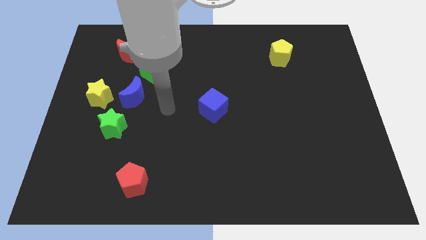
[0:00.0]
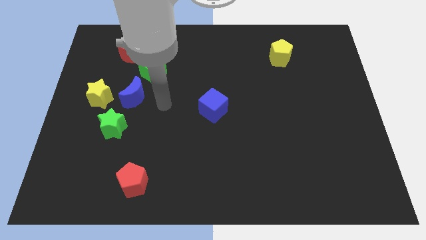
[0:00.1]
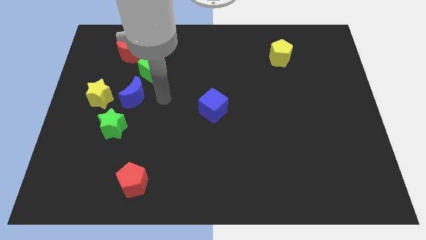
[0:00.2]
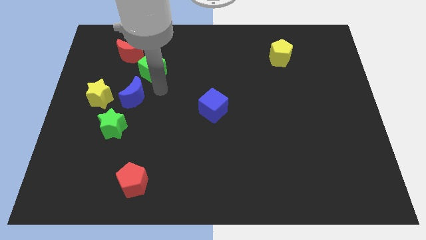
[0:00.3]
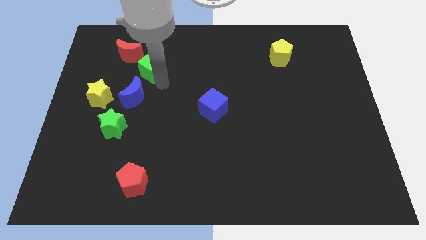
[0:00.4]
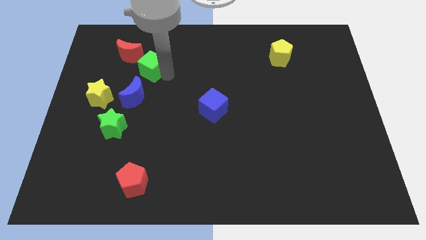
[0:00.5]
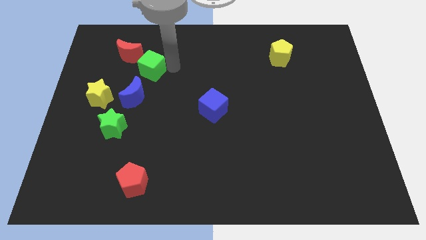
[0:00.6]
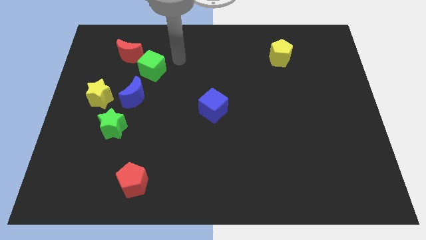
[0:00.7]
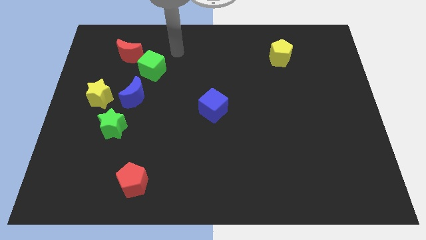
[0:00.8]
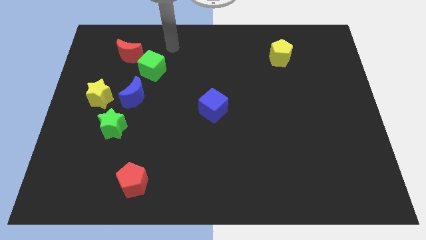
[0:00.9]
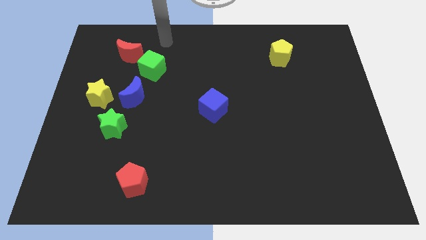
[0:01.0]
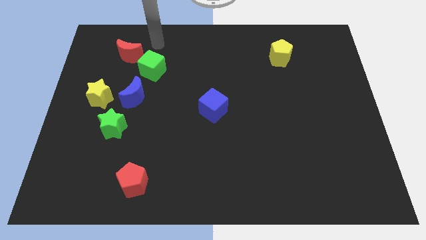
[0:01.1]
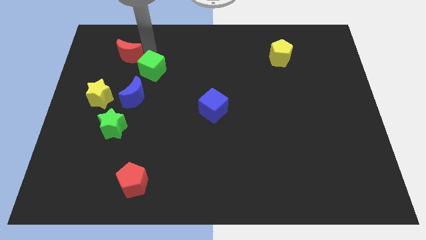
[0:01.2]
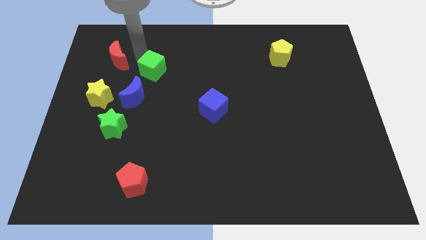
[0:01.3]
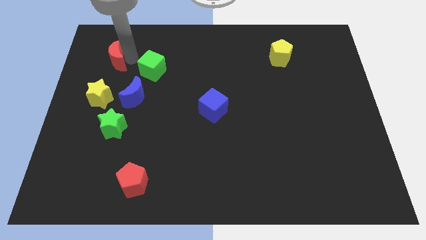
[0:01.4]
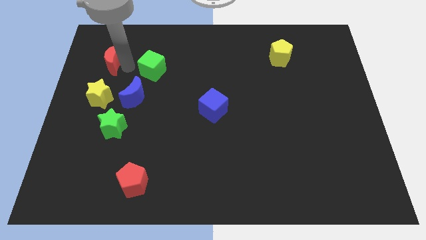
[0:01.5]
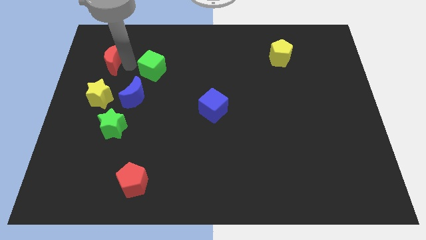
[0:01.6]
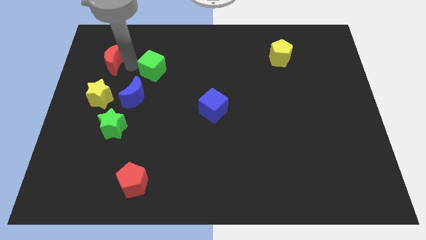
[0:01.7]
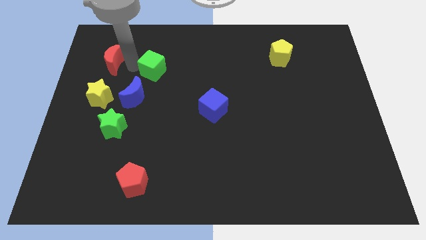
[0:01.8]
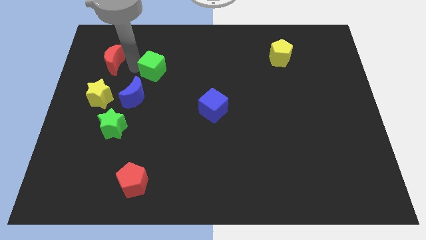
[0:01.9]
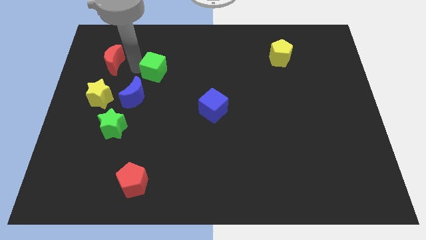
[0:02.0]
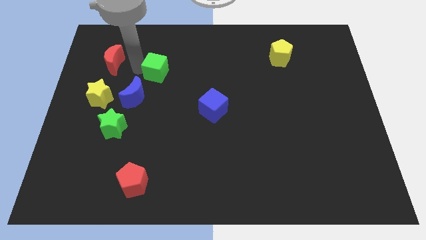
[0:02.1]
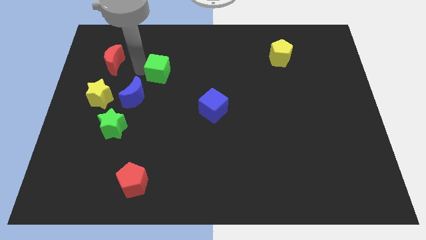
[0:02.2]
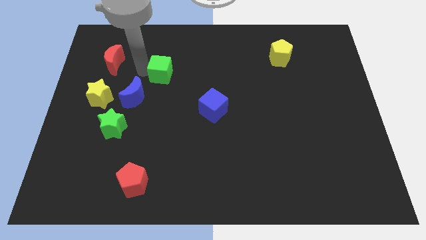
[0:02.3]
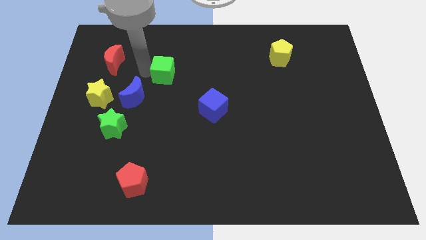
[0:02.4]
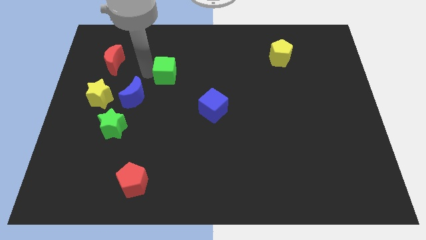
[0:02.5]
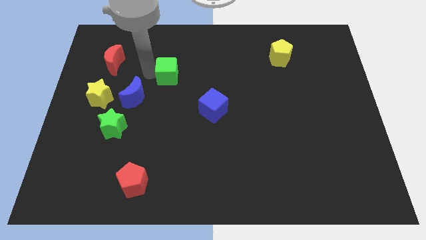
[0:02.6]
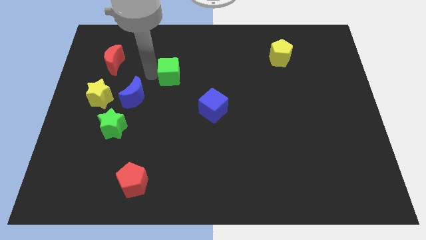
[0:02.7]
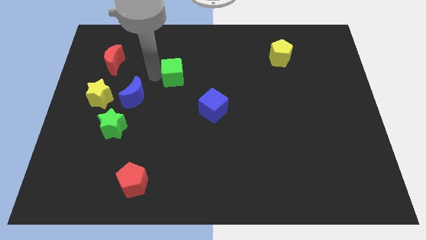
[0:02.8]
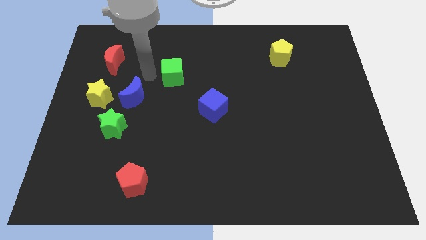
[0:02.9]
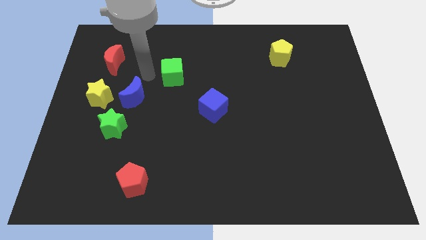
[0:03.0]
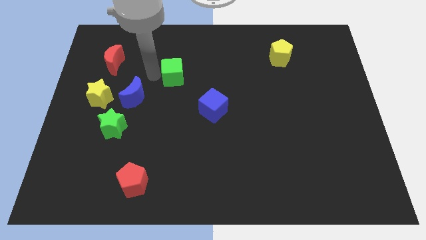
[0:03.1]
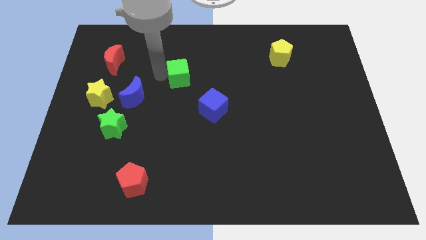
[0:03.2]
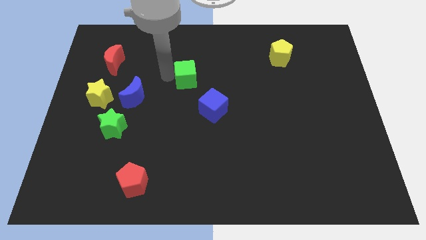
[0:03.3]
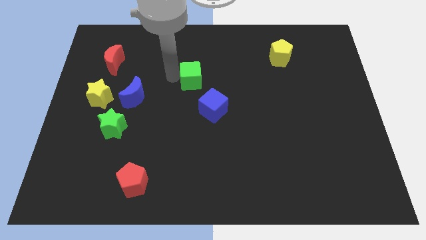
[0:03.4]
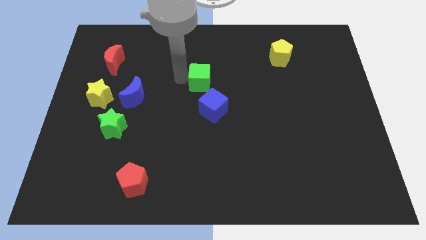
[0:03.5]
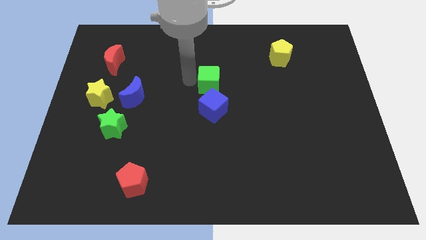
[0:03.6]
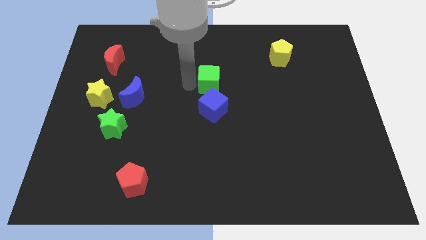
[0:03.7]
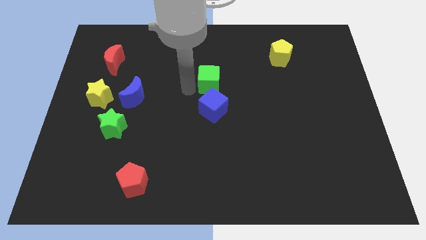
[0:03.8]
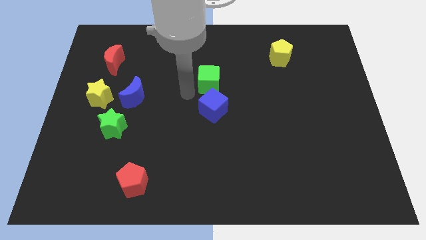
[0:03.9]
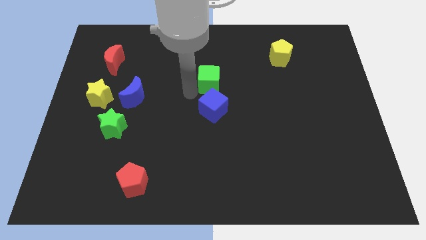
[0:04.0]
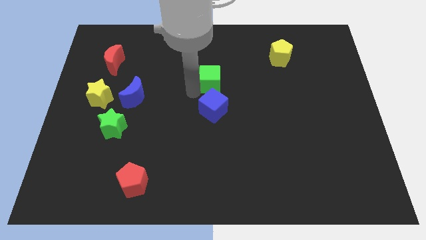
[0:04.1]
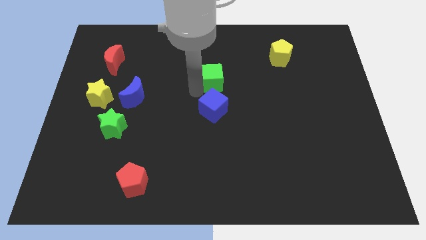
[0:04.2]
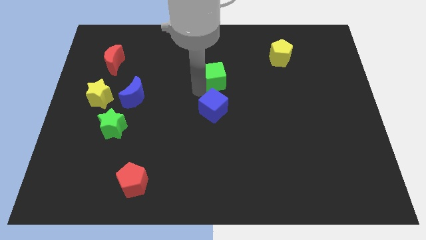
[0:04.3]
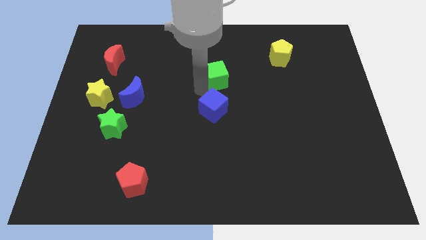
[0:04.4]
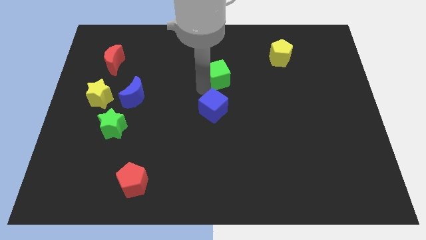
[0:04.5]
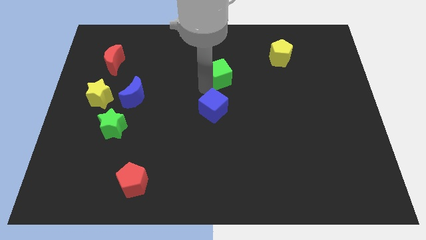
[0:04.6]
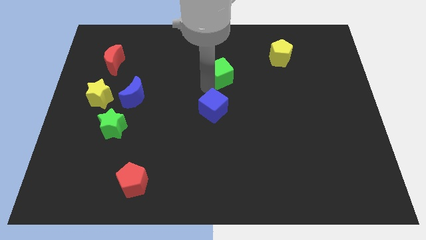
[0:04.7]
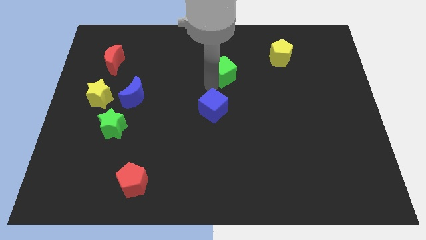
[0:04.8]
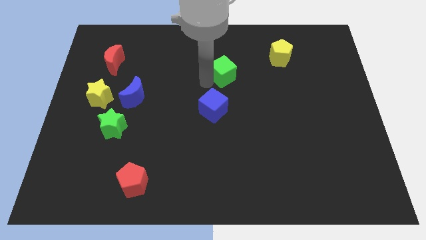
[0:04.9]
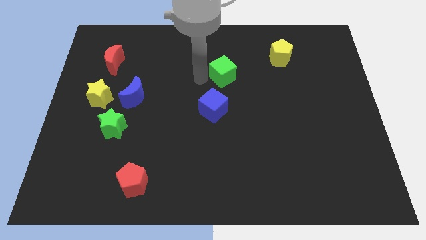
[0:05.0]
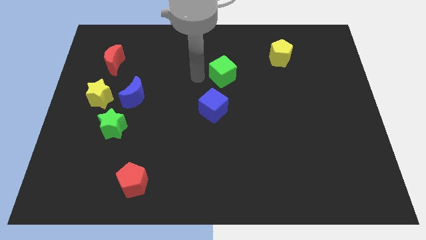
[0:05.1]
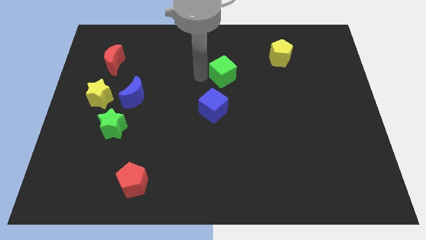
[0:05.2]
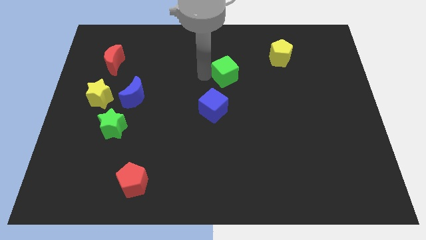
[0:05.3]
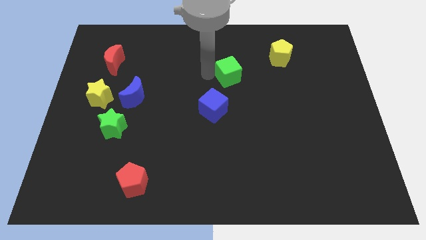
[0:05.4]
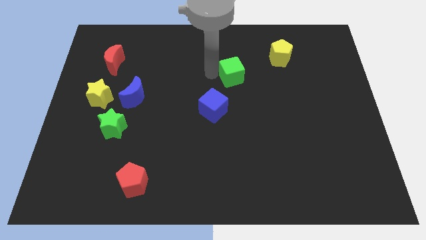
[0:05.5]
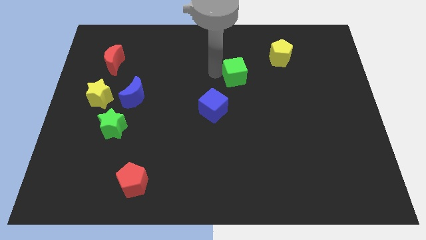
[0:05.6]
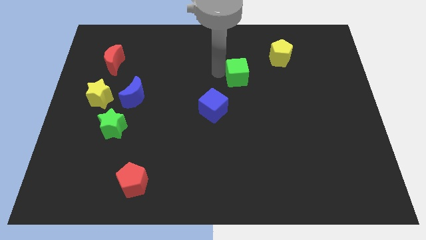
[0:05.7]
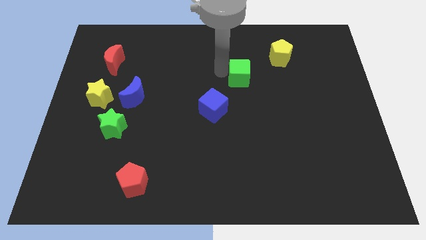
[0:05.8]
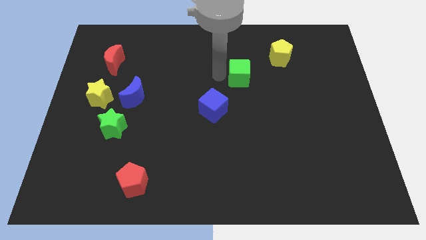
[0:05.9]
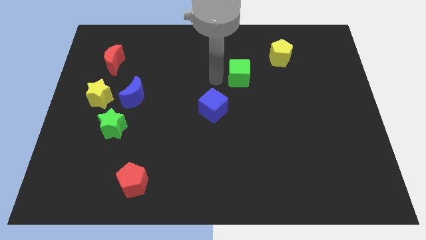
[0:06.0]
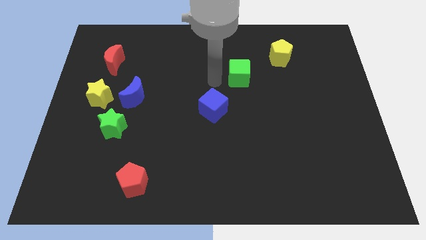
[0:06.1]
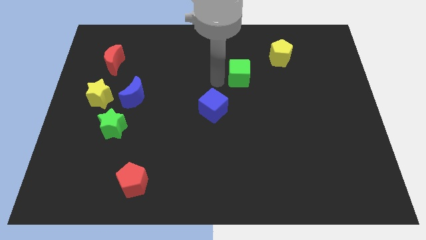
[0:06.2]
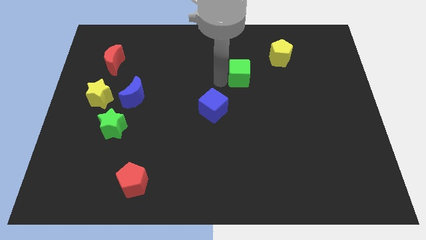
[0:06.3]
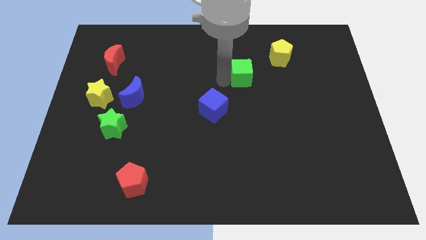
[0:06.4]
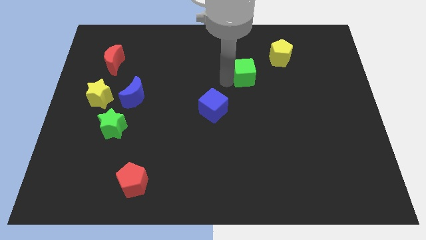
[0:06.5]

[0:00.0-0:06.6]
slide the green cube to the bottom left side of the yellow pentagon

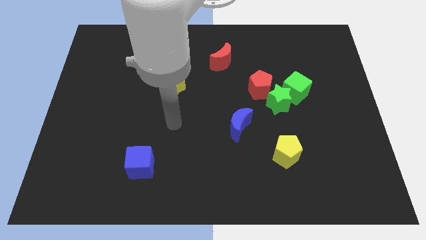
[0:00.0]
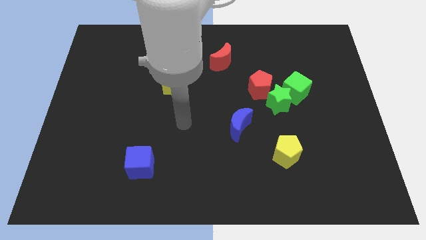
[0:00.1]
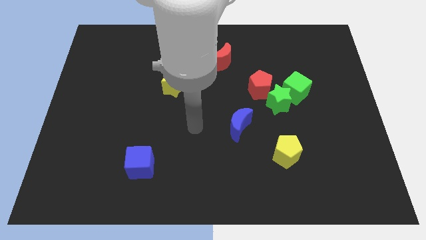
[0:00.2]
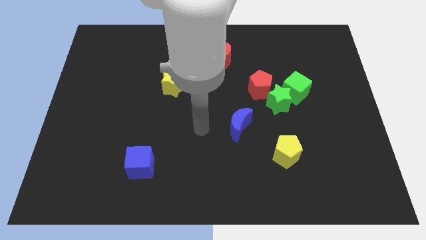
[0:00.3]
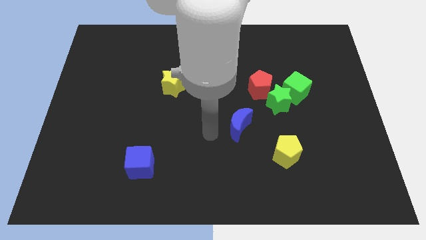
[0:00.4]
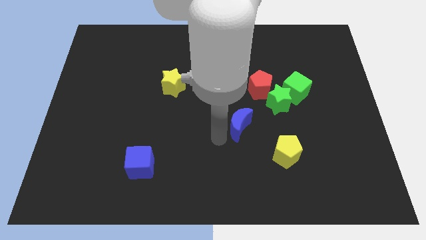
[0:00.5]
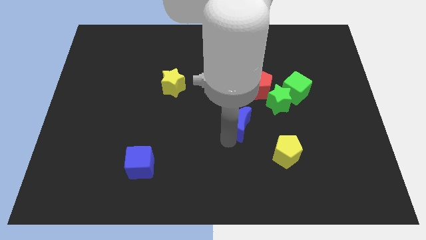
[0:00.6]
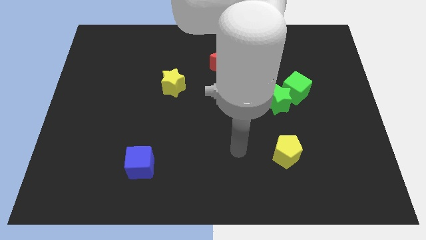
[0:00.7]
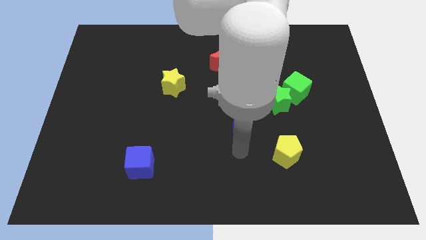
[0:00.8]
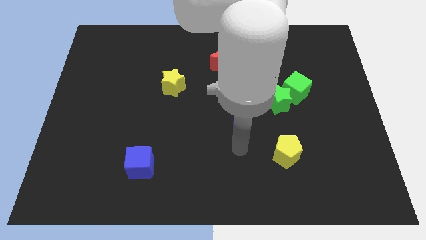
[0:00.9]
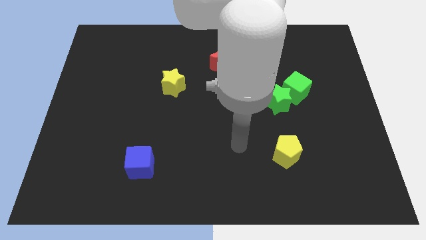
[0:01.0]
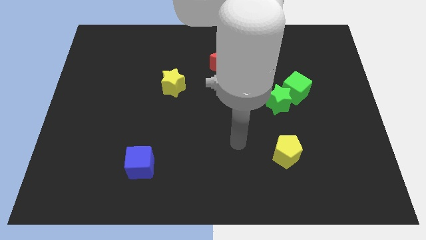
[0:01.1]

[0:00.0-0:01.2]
push the blue moon diagonally down and to the left of the red pentagon
